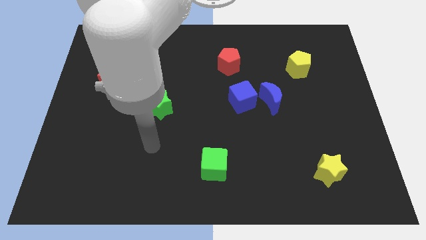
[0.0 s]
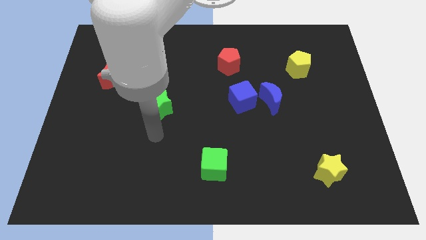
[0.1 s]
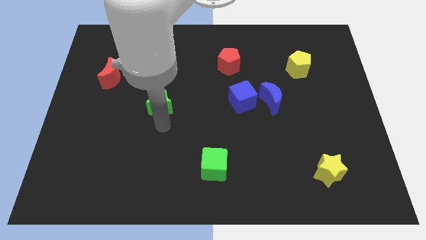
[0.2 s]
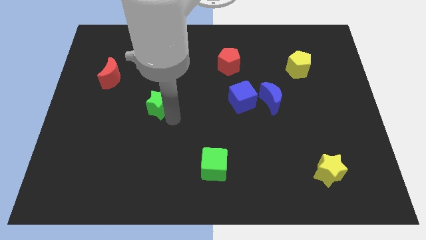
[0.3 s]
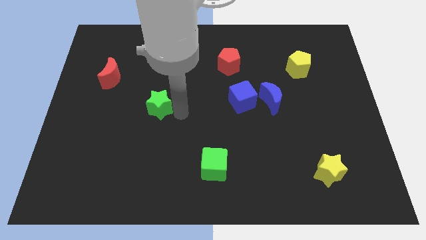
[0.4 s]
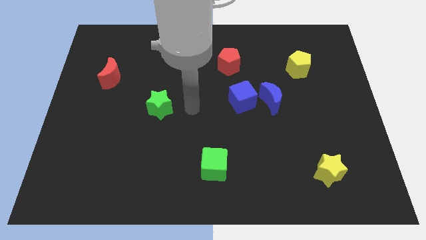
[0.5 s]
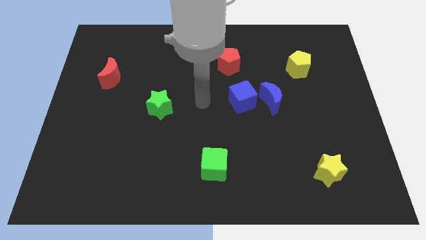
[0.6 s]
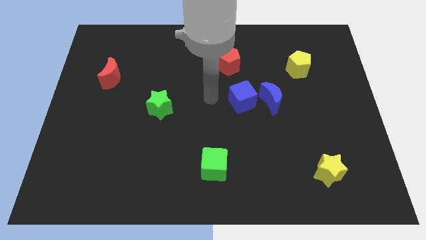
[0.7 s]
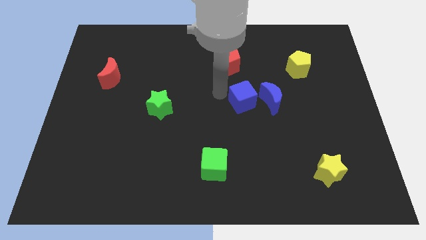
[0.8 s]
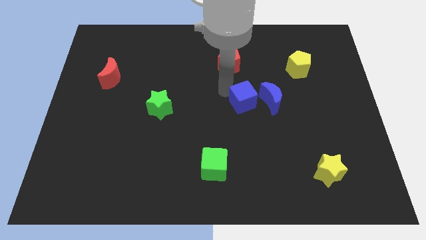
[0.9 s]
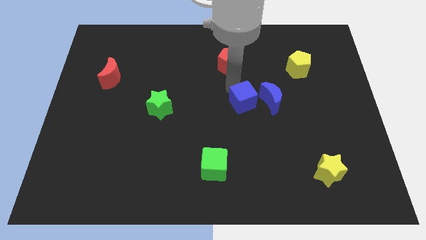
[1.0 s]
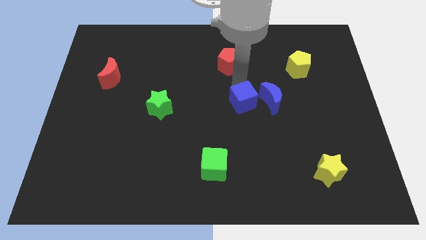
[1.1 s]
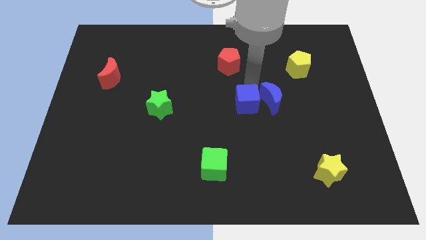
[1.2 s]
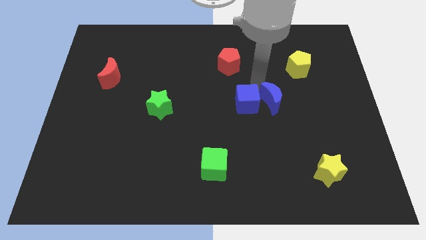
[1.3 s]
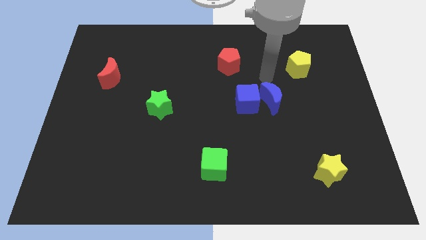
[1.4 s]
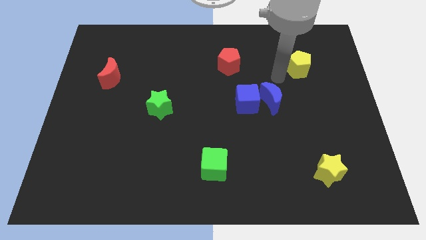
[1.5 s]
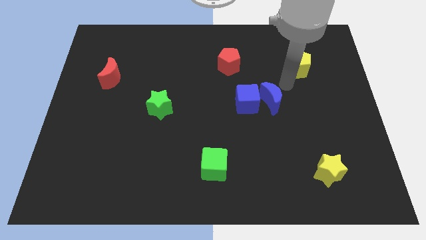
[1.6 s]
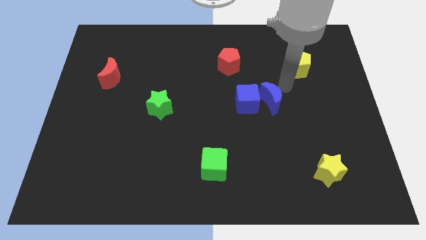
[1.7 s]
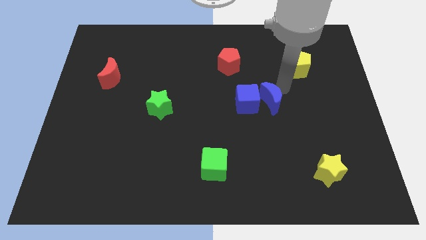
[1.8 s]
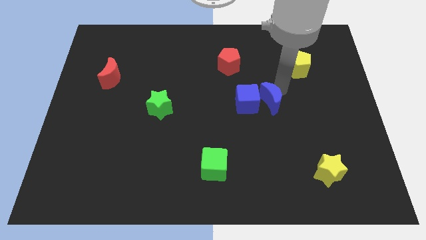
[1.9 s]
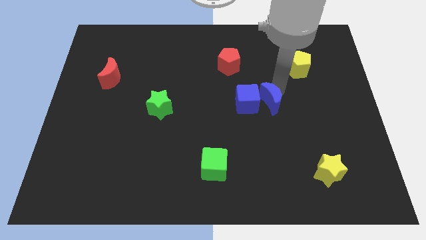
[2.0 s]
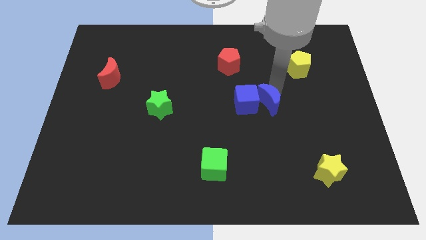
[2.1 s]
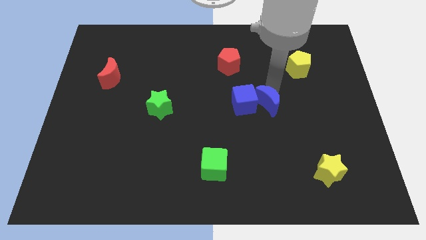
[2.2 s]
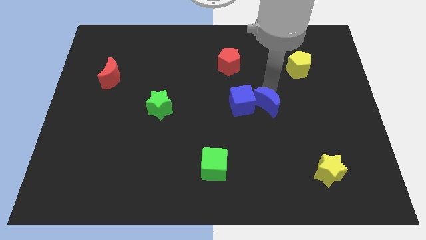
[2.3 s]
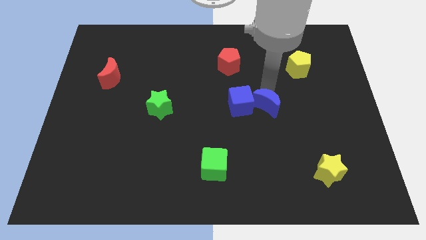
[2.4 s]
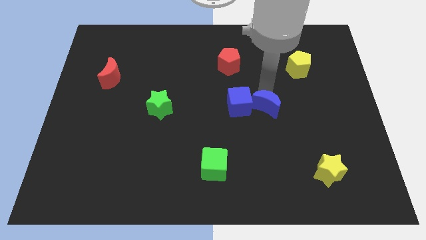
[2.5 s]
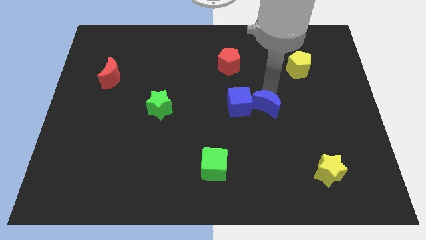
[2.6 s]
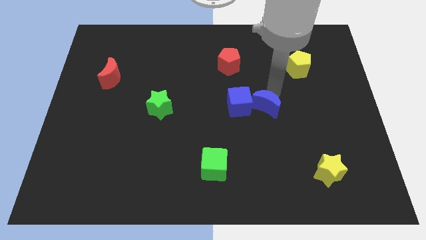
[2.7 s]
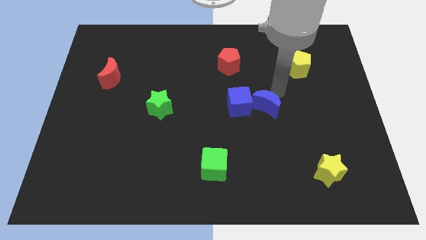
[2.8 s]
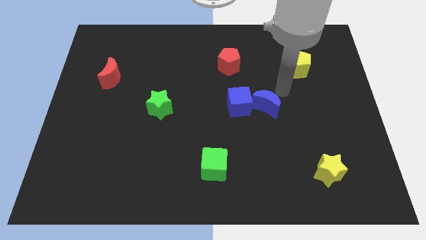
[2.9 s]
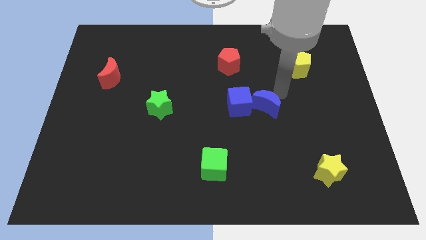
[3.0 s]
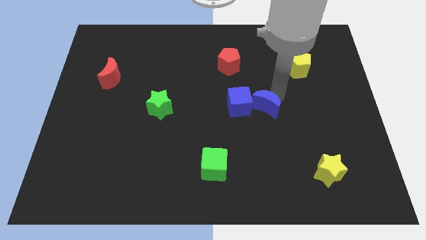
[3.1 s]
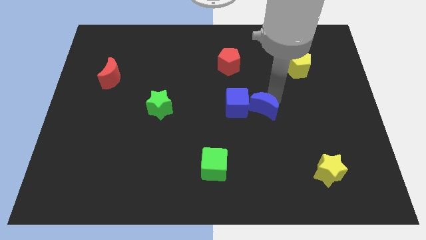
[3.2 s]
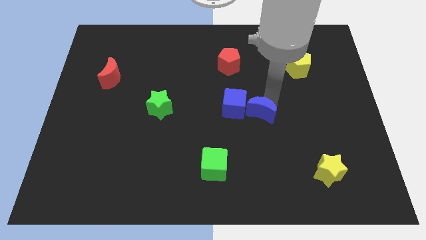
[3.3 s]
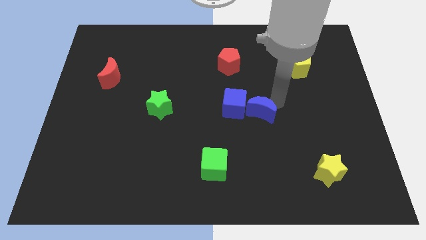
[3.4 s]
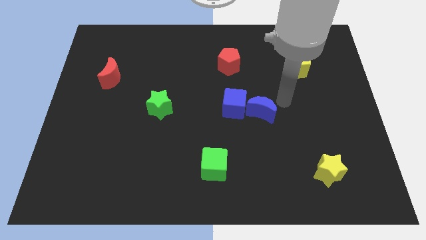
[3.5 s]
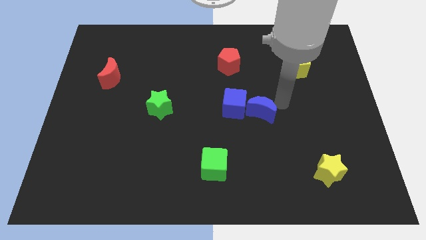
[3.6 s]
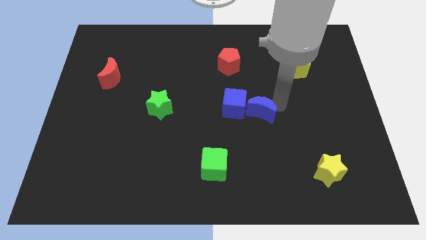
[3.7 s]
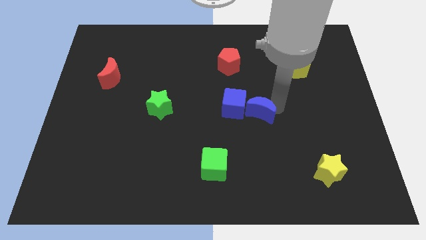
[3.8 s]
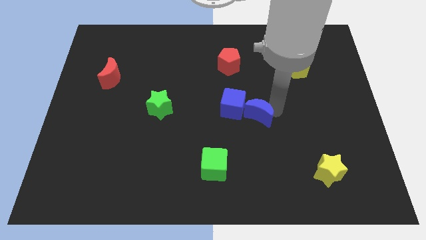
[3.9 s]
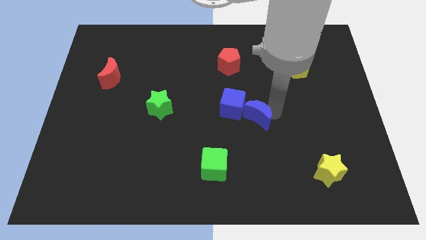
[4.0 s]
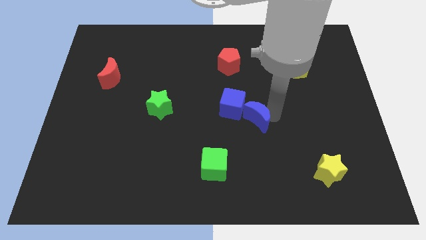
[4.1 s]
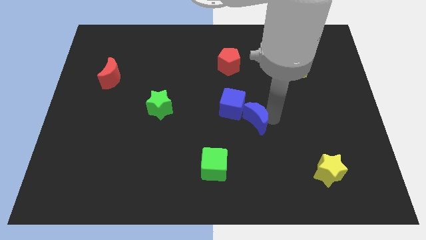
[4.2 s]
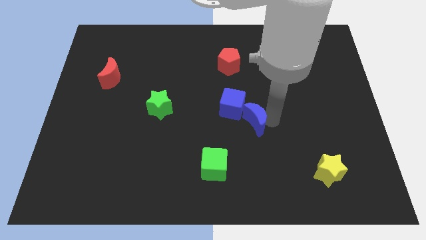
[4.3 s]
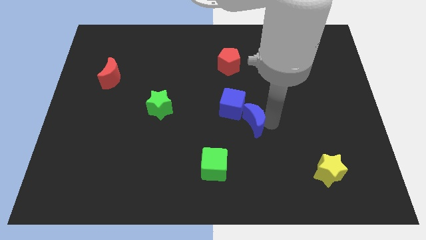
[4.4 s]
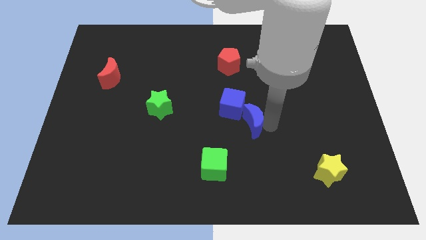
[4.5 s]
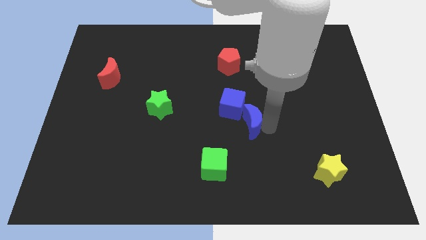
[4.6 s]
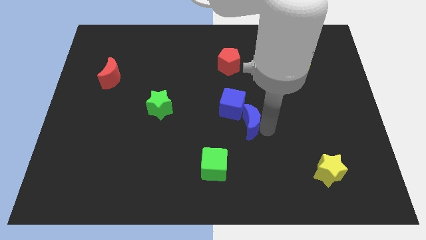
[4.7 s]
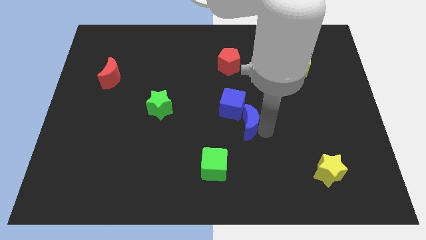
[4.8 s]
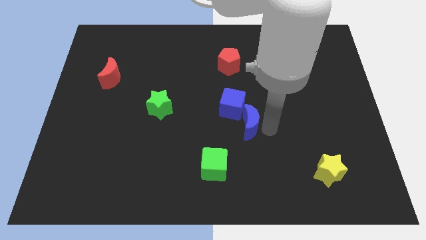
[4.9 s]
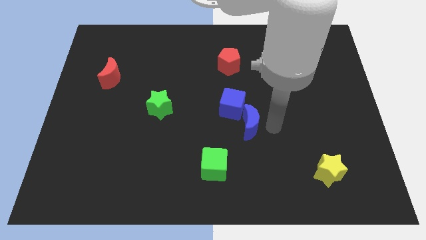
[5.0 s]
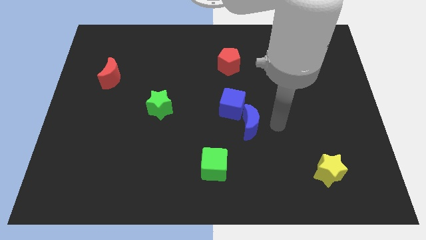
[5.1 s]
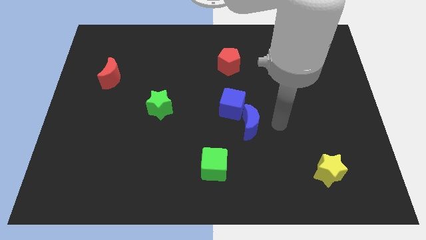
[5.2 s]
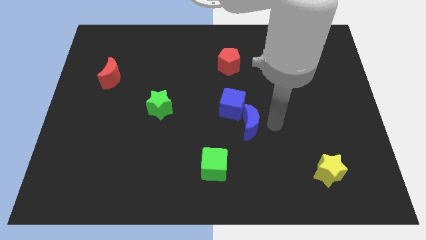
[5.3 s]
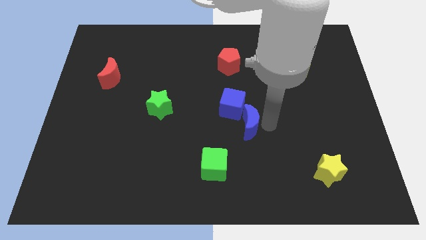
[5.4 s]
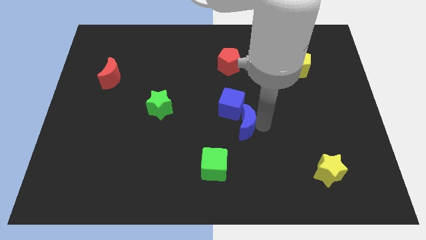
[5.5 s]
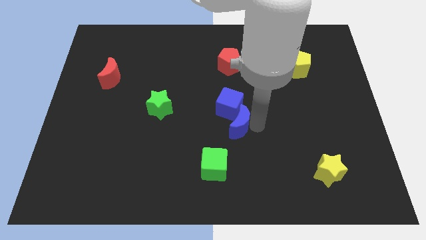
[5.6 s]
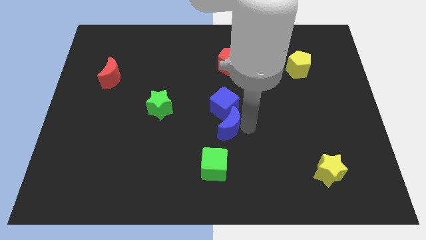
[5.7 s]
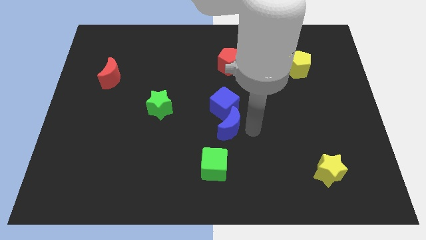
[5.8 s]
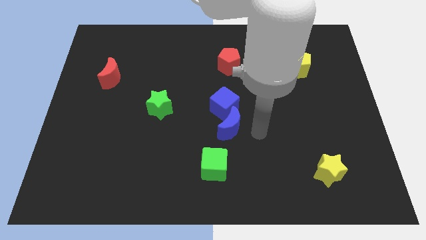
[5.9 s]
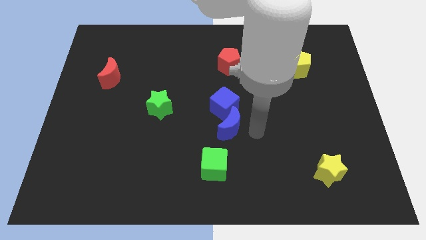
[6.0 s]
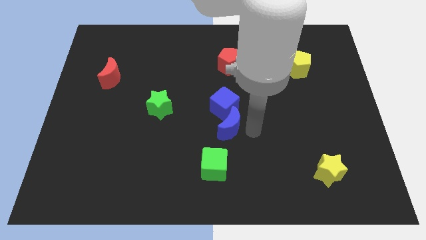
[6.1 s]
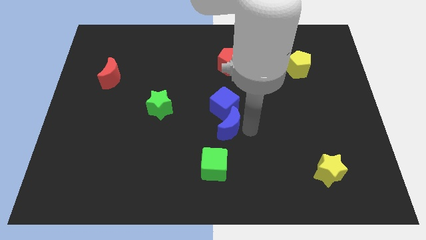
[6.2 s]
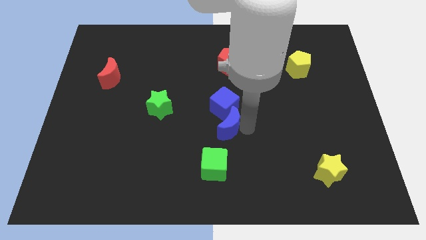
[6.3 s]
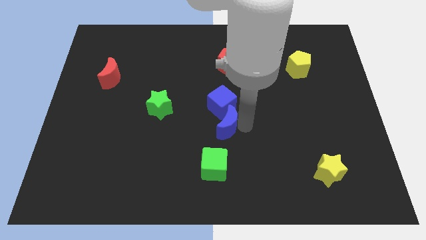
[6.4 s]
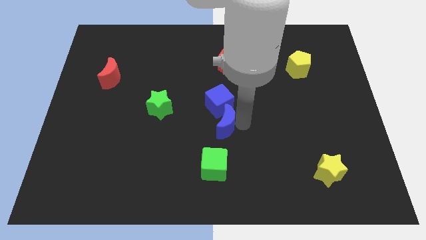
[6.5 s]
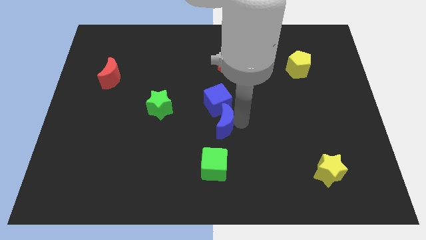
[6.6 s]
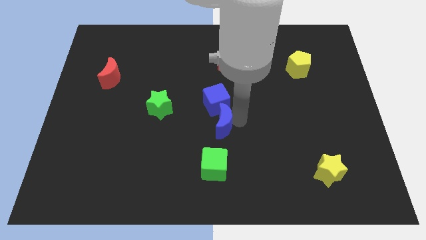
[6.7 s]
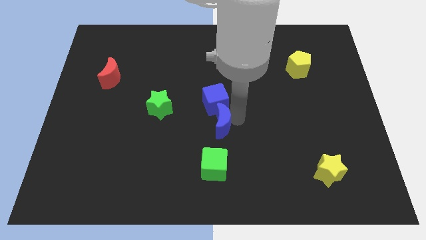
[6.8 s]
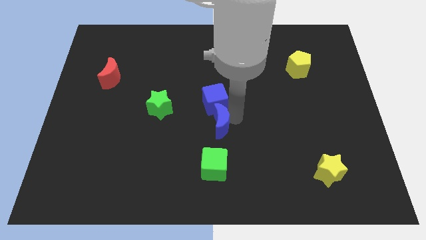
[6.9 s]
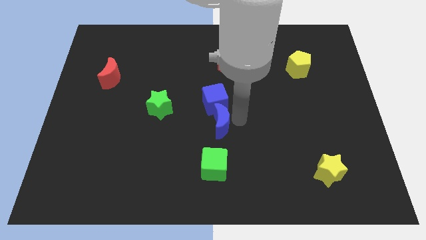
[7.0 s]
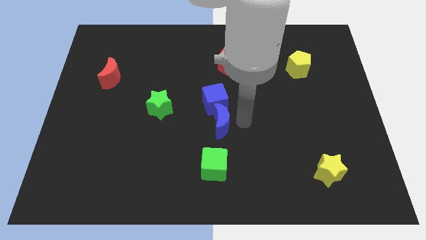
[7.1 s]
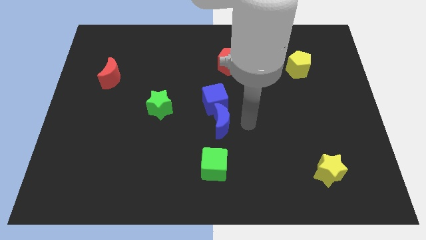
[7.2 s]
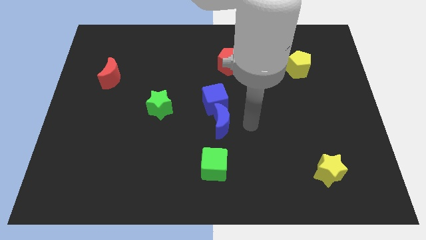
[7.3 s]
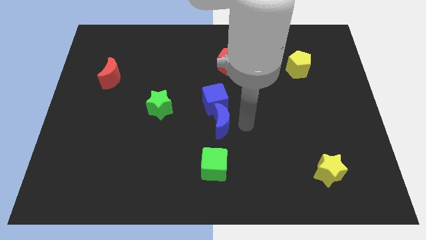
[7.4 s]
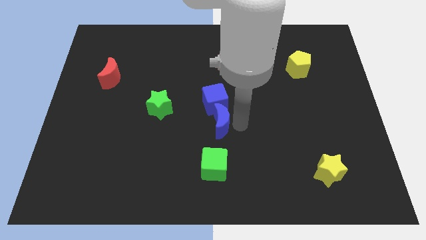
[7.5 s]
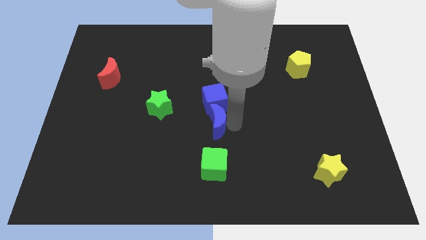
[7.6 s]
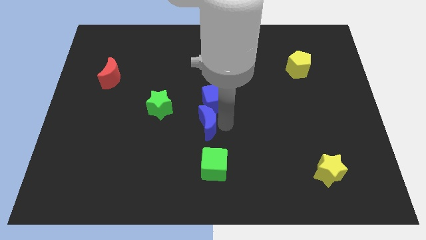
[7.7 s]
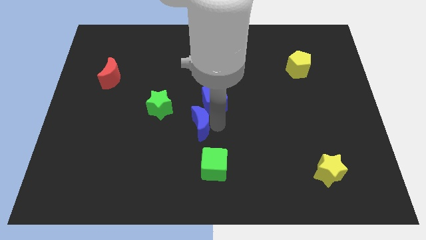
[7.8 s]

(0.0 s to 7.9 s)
push the blue moon to the bottom right of the green star
